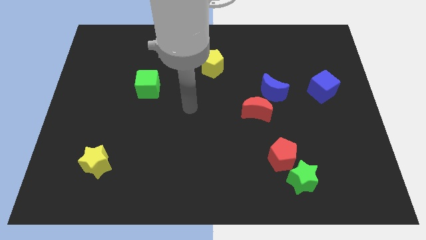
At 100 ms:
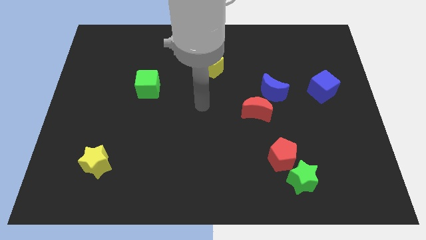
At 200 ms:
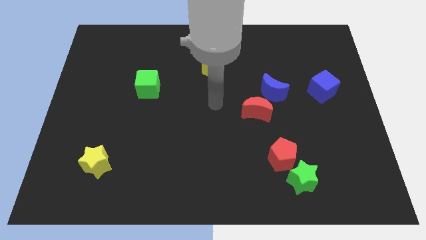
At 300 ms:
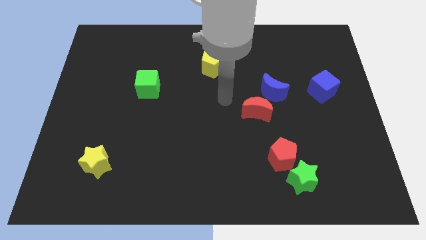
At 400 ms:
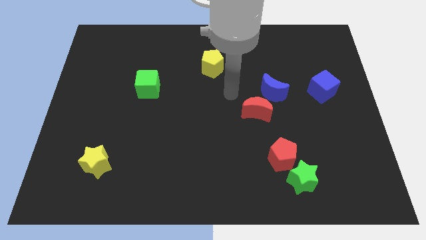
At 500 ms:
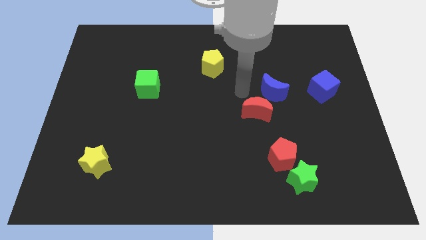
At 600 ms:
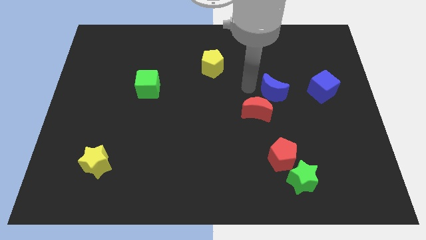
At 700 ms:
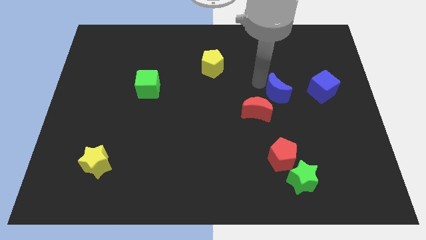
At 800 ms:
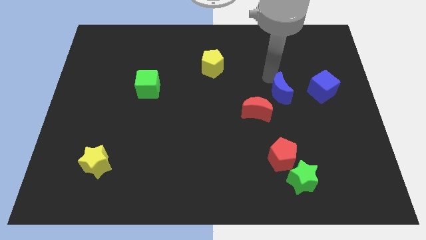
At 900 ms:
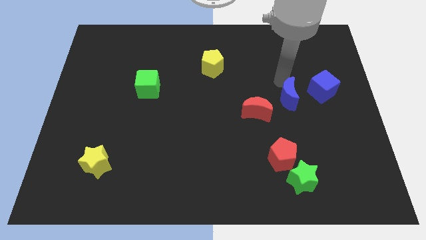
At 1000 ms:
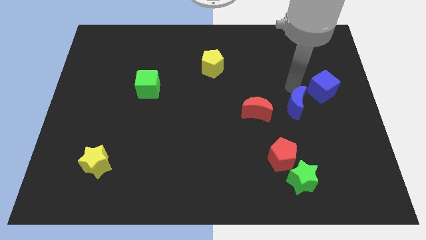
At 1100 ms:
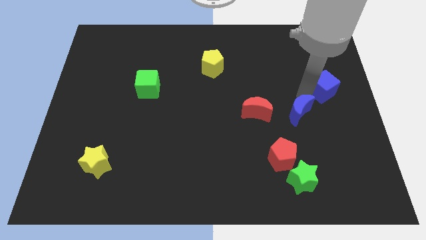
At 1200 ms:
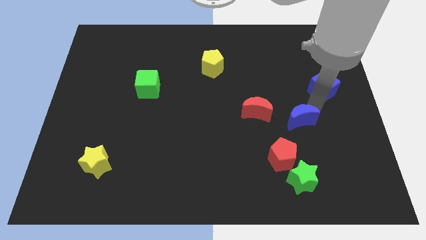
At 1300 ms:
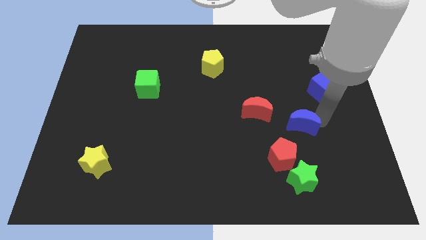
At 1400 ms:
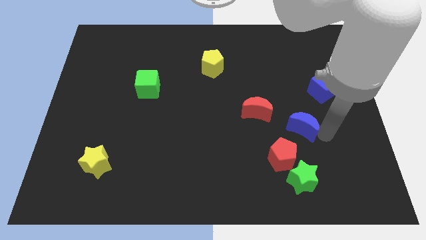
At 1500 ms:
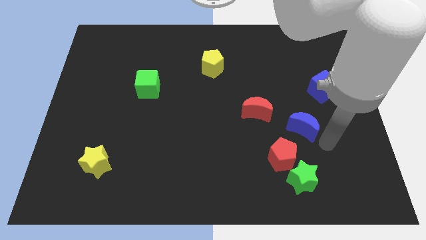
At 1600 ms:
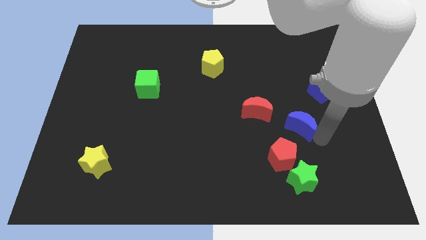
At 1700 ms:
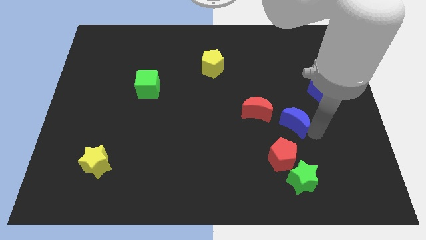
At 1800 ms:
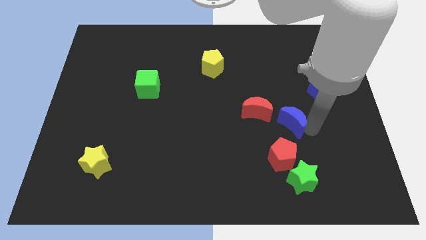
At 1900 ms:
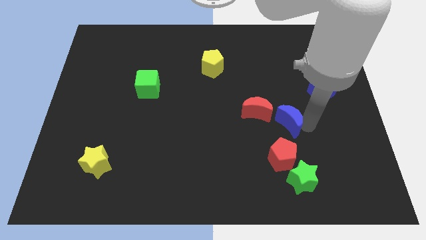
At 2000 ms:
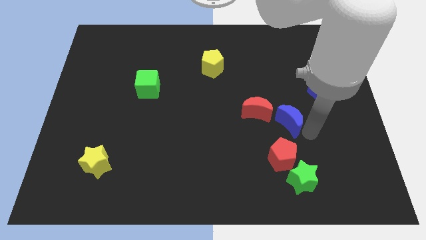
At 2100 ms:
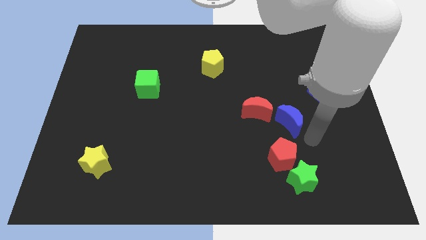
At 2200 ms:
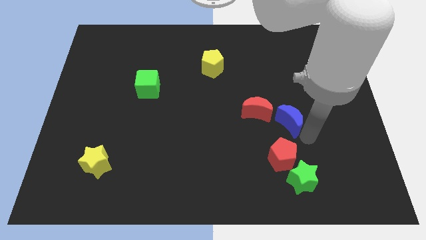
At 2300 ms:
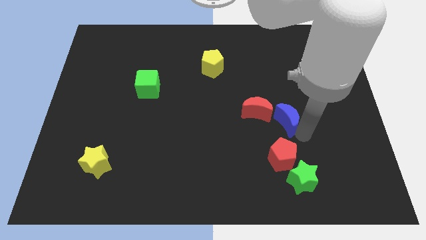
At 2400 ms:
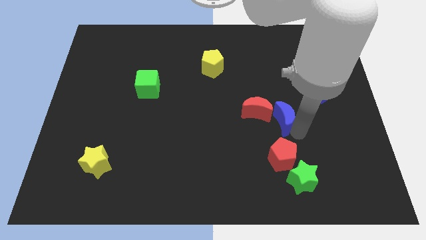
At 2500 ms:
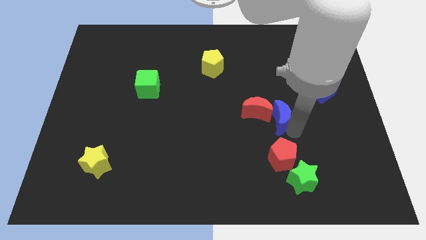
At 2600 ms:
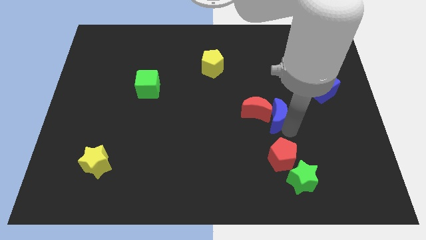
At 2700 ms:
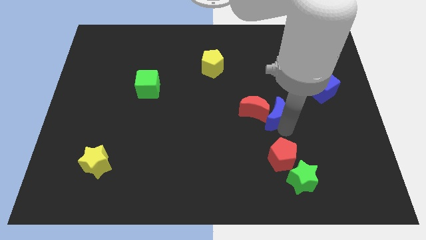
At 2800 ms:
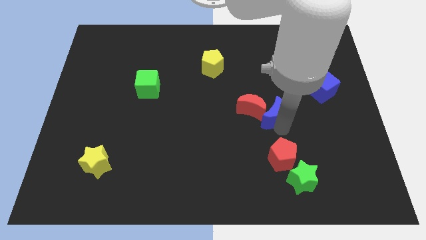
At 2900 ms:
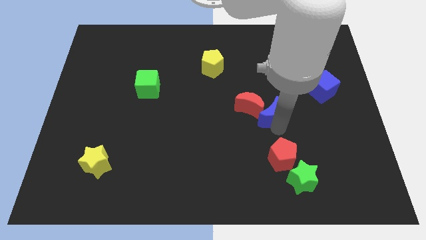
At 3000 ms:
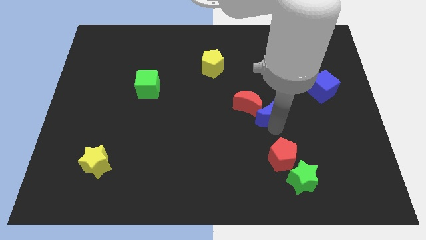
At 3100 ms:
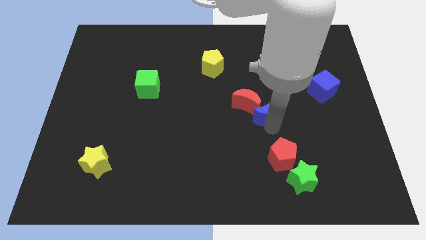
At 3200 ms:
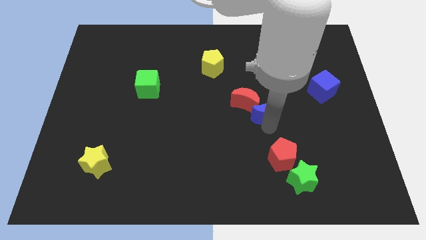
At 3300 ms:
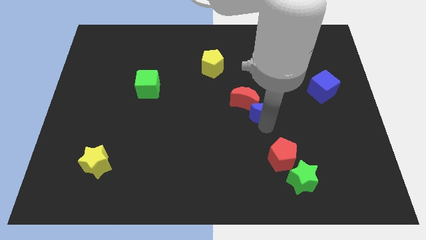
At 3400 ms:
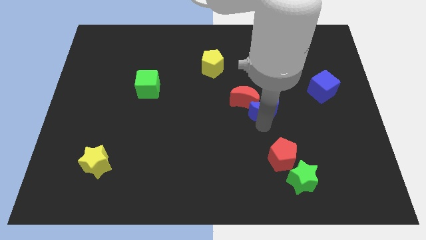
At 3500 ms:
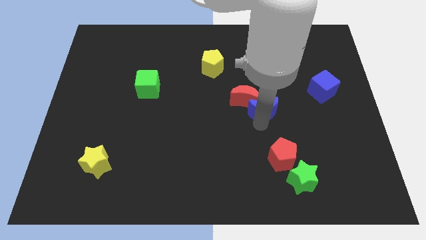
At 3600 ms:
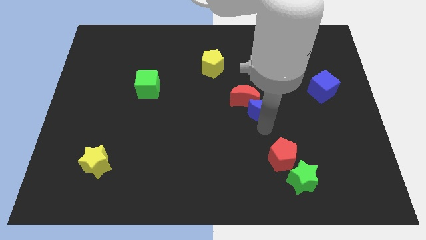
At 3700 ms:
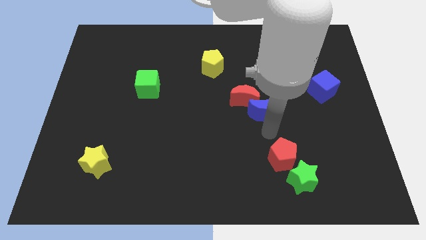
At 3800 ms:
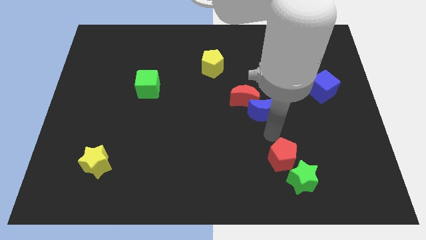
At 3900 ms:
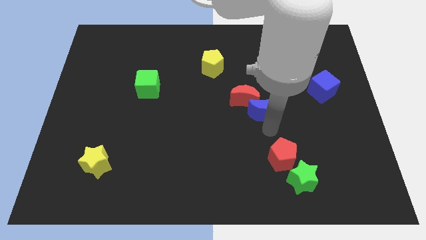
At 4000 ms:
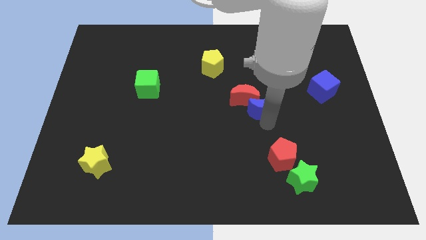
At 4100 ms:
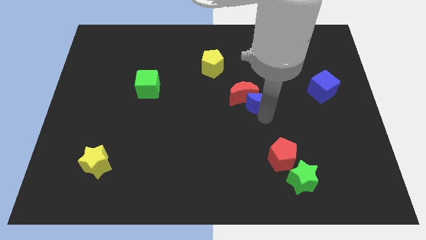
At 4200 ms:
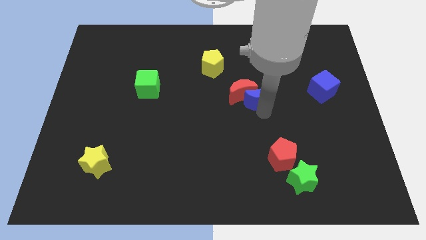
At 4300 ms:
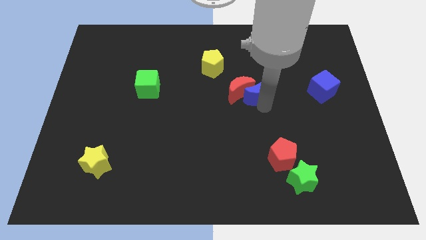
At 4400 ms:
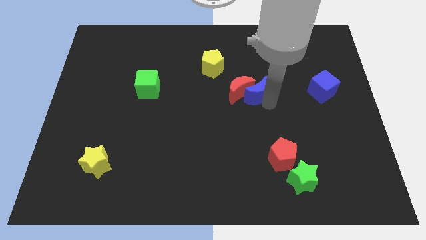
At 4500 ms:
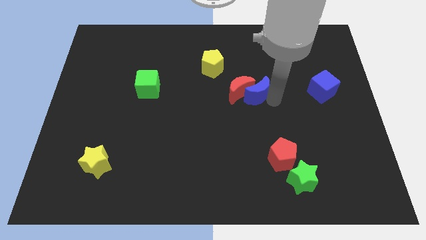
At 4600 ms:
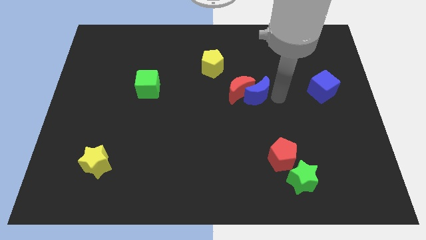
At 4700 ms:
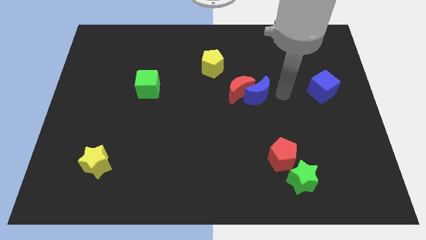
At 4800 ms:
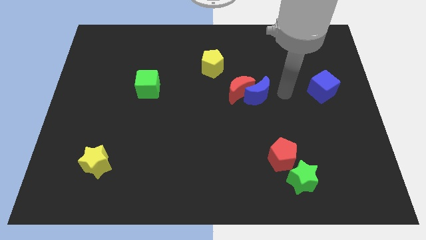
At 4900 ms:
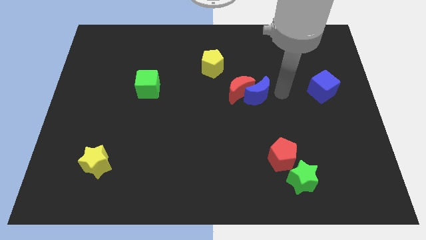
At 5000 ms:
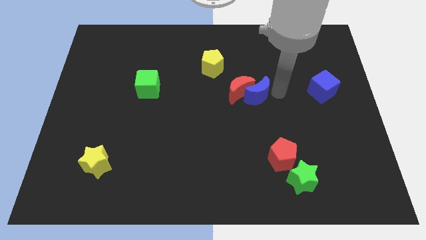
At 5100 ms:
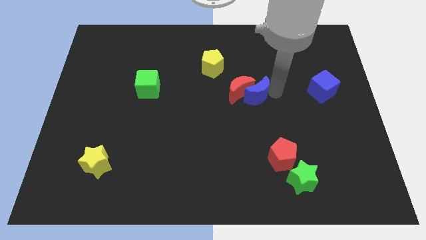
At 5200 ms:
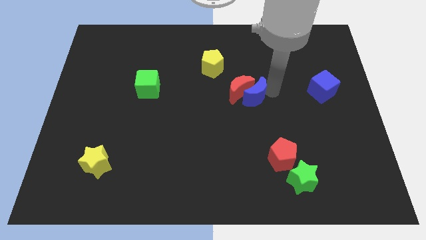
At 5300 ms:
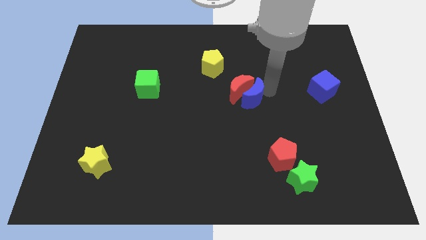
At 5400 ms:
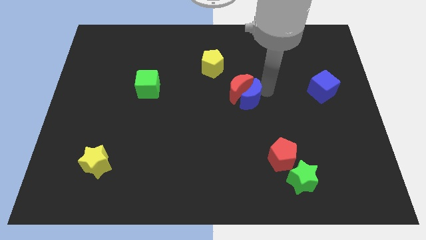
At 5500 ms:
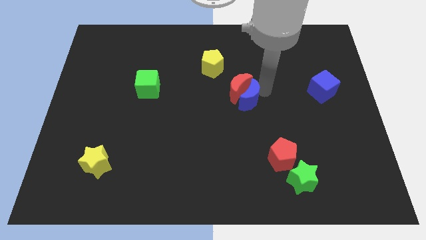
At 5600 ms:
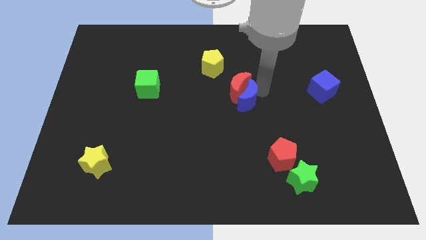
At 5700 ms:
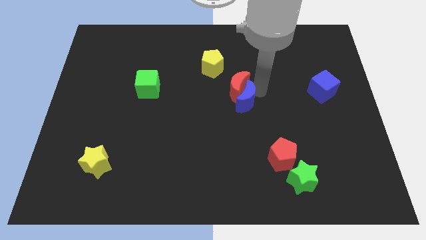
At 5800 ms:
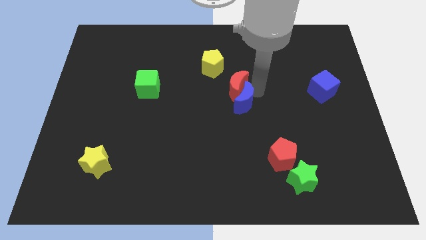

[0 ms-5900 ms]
slide the blue moon a bit downwards and left

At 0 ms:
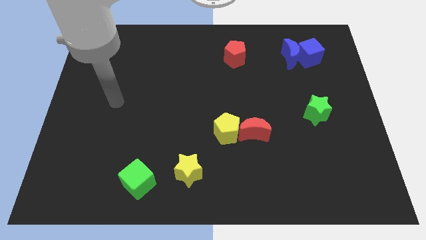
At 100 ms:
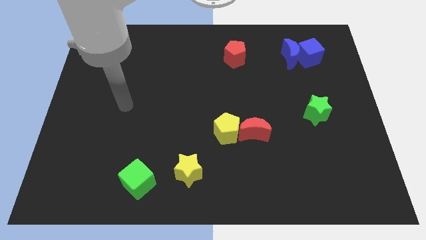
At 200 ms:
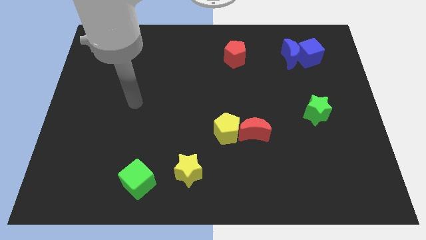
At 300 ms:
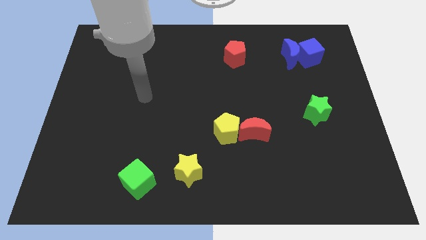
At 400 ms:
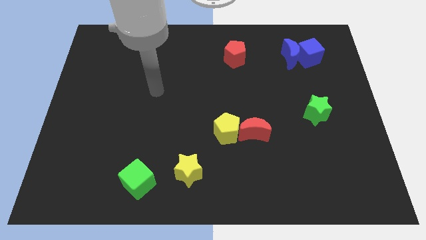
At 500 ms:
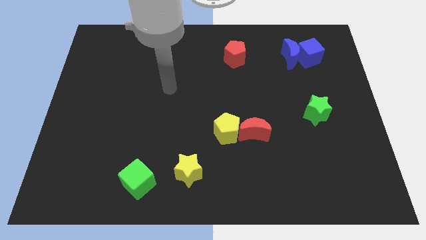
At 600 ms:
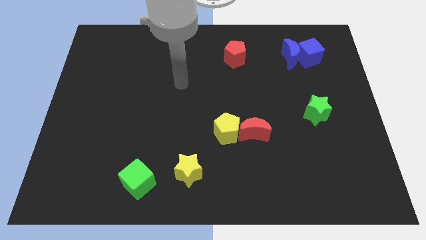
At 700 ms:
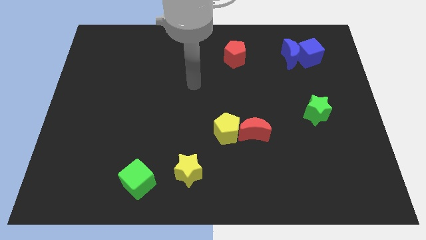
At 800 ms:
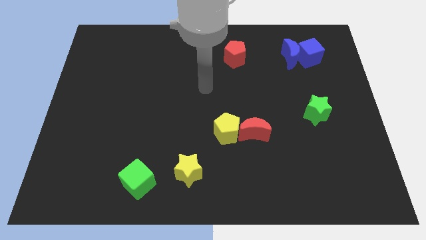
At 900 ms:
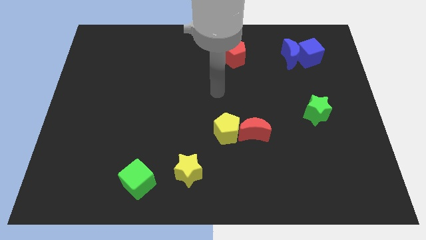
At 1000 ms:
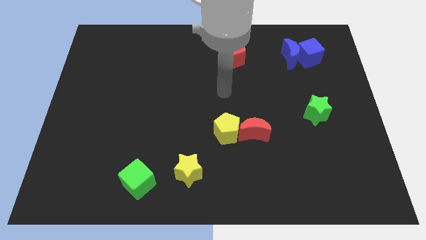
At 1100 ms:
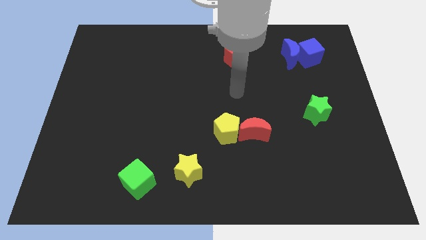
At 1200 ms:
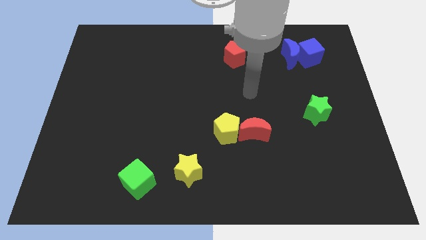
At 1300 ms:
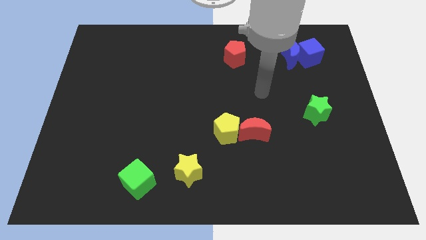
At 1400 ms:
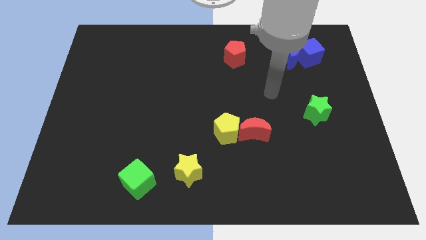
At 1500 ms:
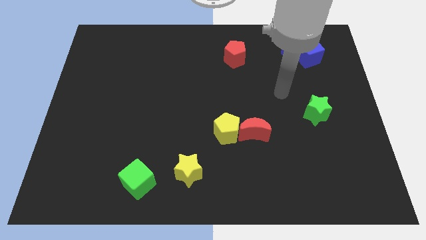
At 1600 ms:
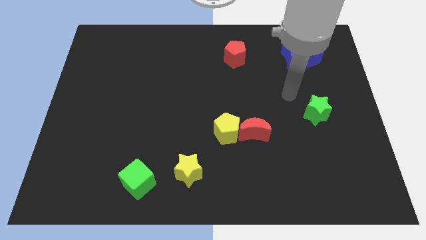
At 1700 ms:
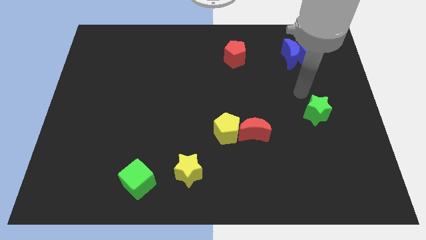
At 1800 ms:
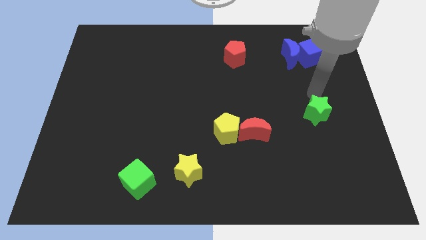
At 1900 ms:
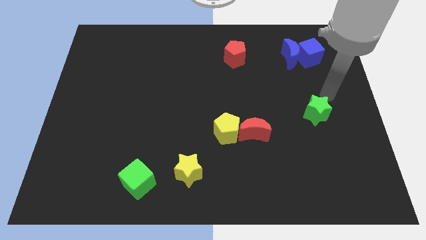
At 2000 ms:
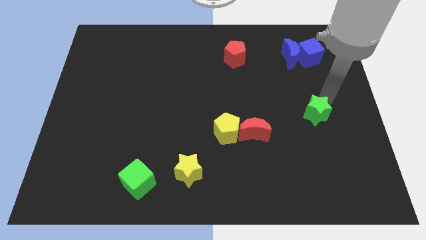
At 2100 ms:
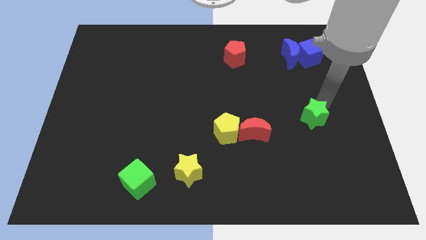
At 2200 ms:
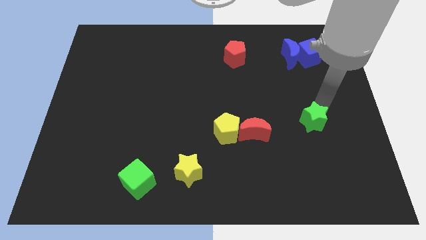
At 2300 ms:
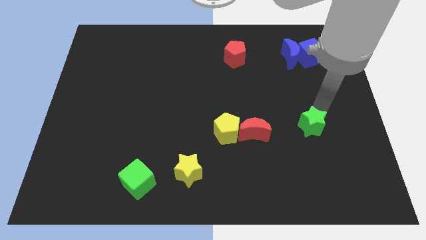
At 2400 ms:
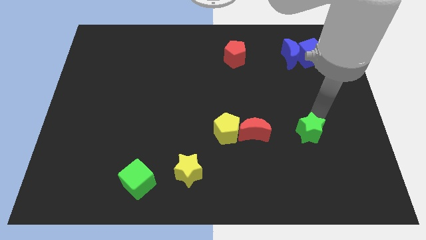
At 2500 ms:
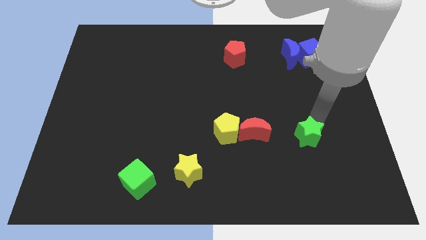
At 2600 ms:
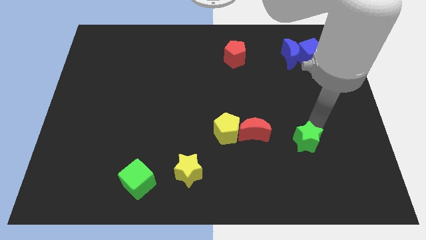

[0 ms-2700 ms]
move the green star downwards and left diagonally a little bit
